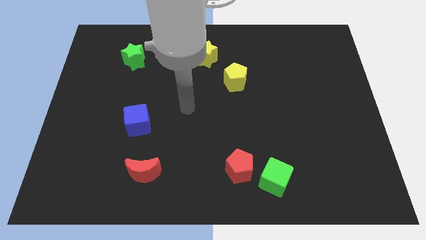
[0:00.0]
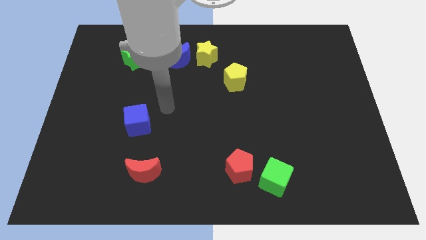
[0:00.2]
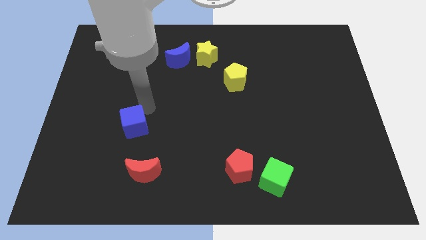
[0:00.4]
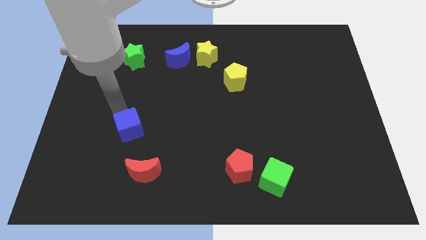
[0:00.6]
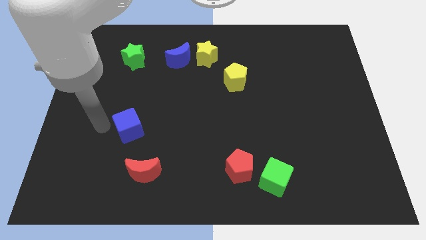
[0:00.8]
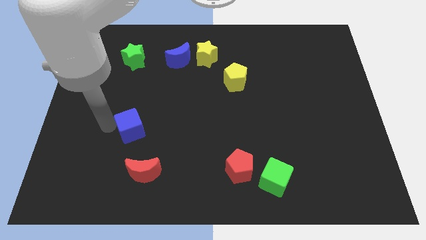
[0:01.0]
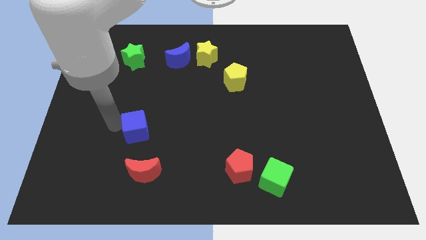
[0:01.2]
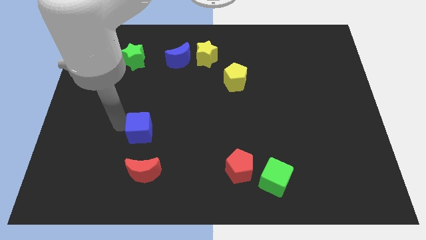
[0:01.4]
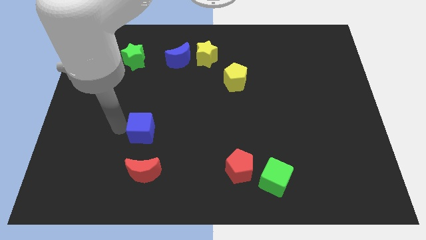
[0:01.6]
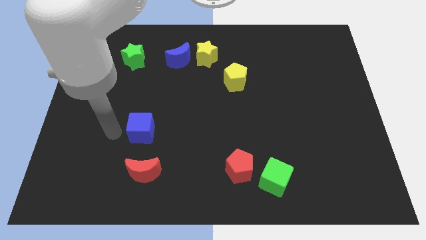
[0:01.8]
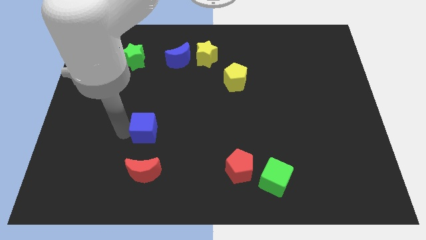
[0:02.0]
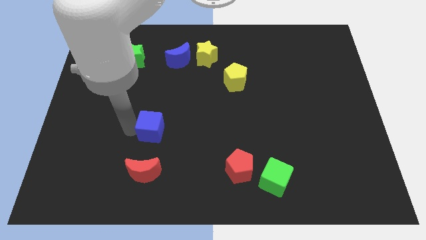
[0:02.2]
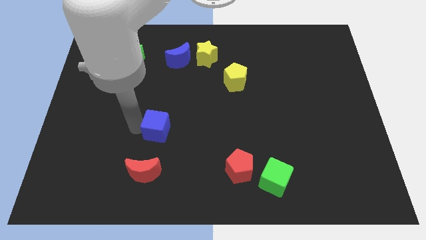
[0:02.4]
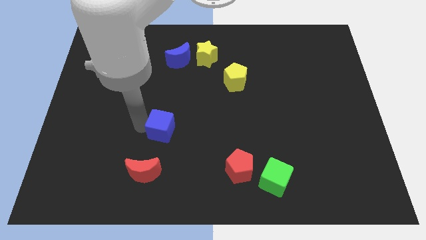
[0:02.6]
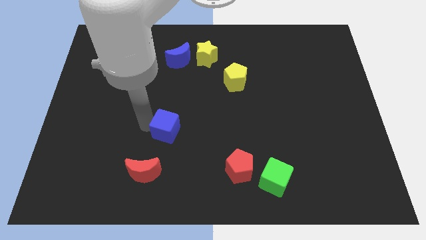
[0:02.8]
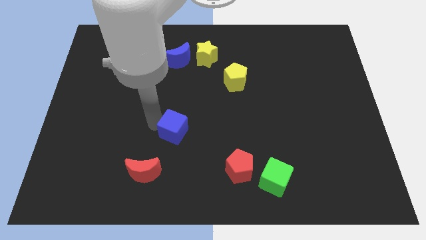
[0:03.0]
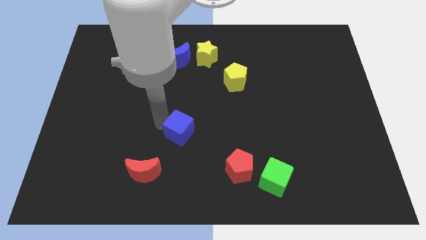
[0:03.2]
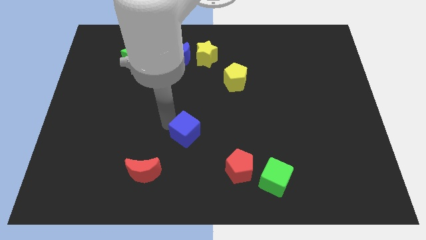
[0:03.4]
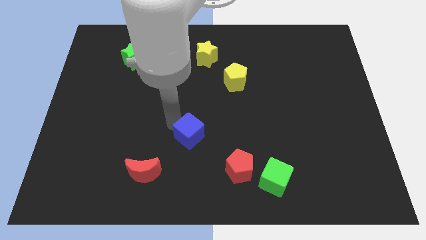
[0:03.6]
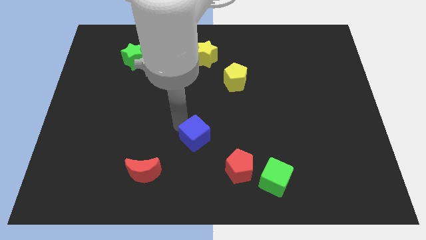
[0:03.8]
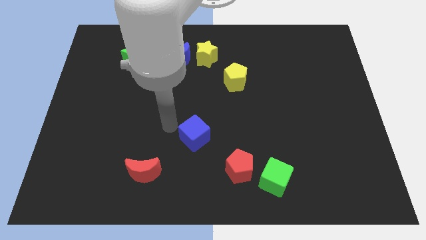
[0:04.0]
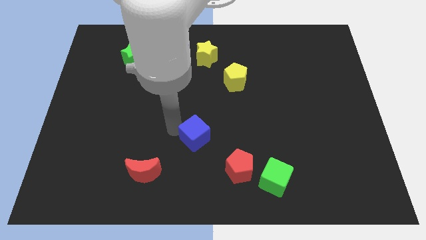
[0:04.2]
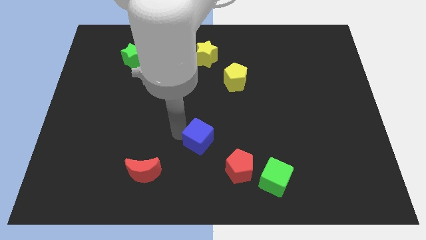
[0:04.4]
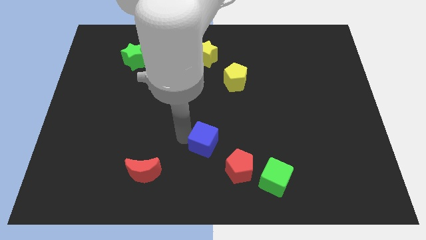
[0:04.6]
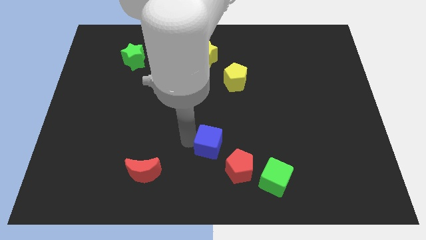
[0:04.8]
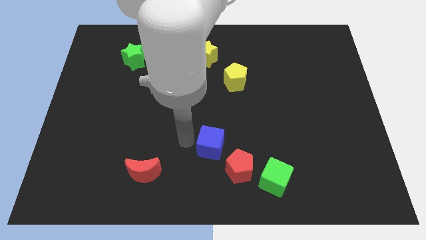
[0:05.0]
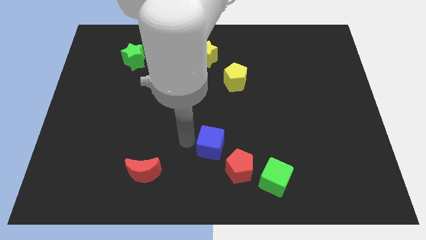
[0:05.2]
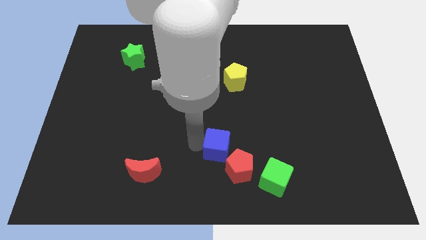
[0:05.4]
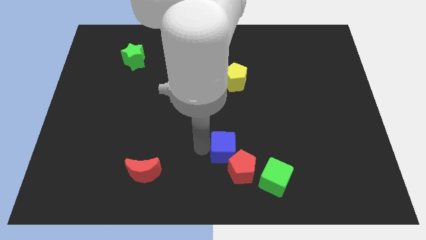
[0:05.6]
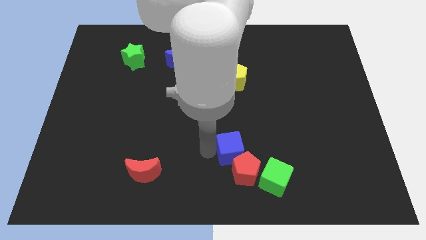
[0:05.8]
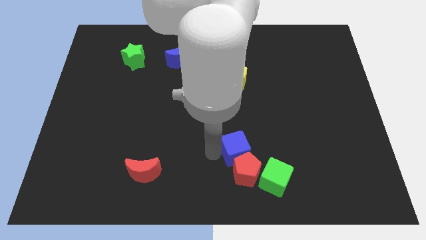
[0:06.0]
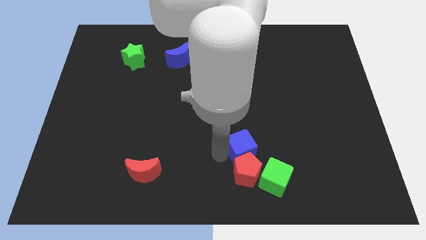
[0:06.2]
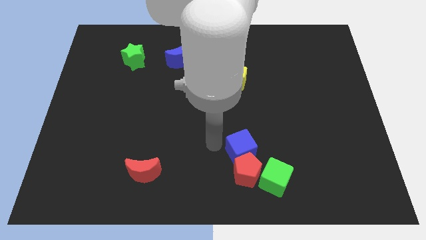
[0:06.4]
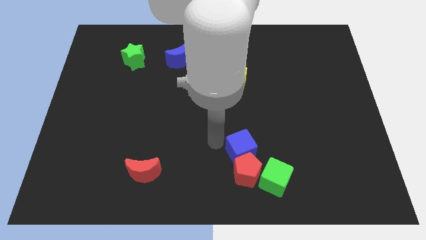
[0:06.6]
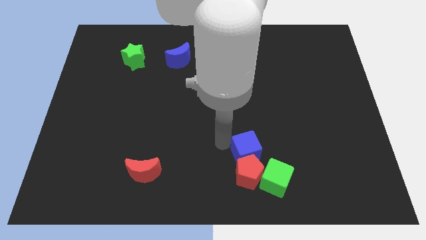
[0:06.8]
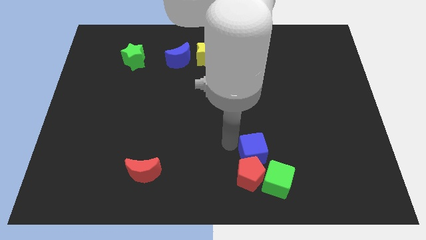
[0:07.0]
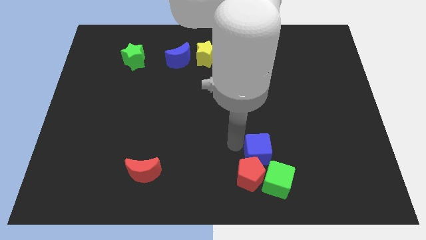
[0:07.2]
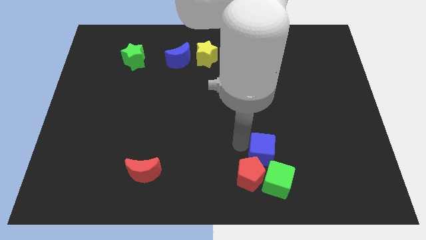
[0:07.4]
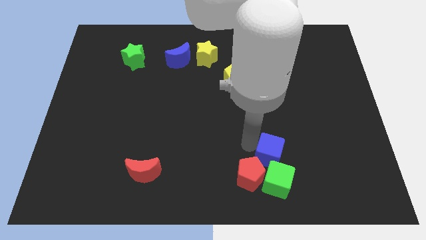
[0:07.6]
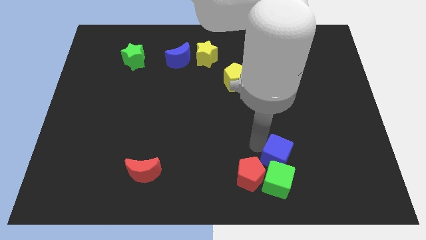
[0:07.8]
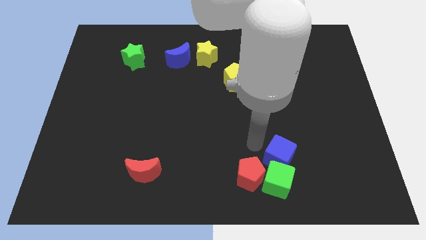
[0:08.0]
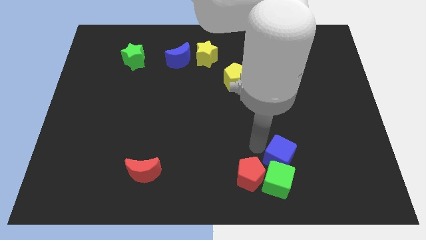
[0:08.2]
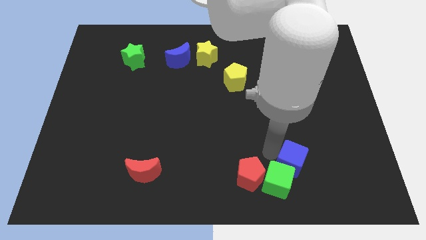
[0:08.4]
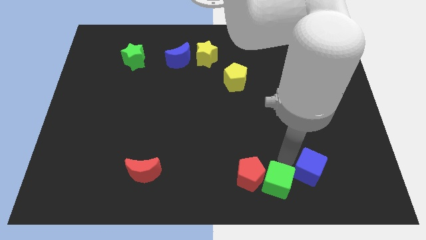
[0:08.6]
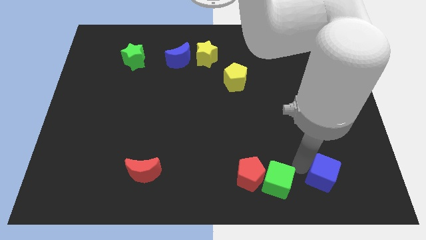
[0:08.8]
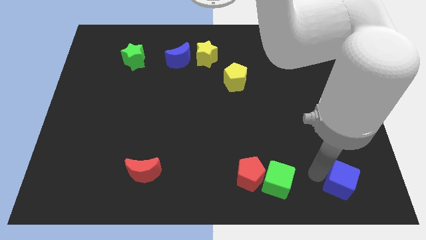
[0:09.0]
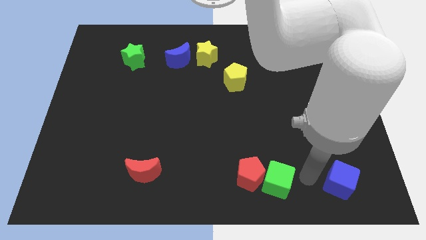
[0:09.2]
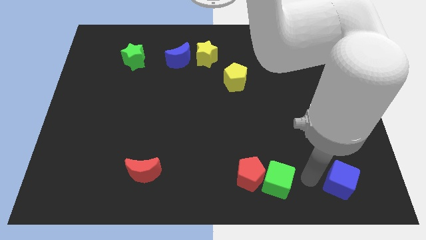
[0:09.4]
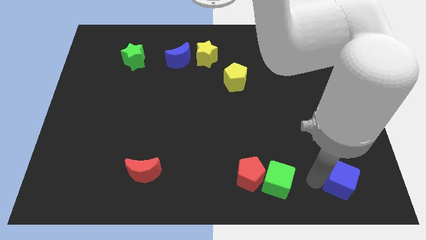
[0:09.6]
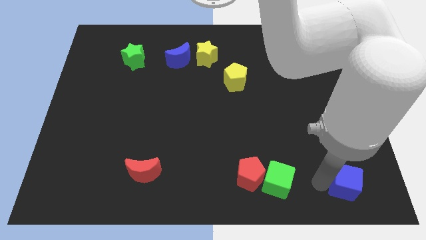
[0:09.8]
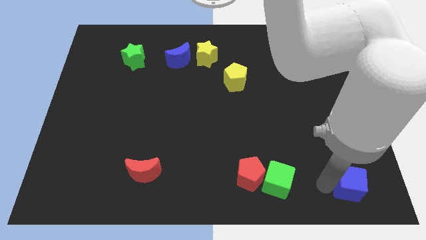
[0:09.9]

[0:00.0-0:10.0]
slide the blue cube to the bottom right corner

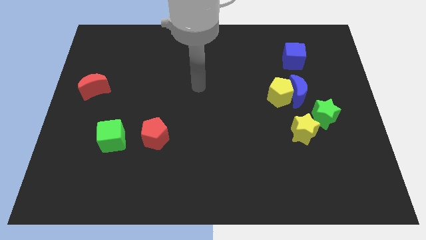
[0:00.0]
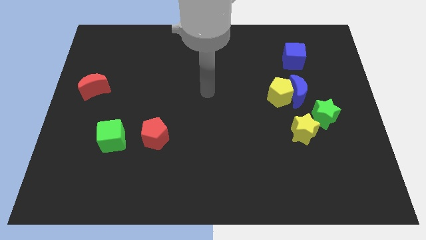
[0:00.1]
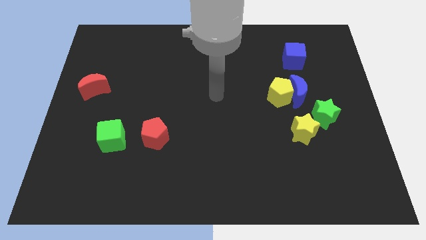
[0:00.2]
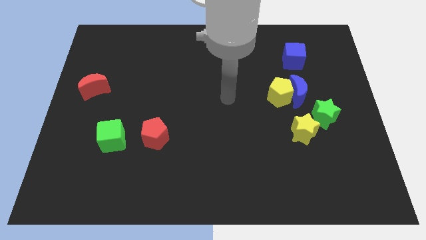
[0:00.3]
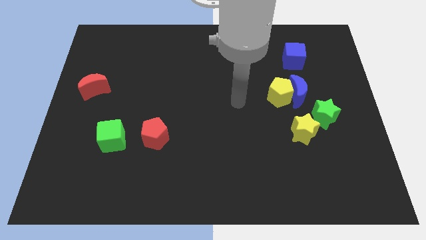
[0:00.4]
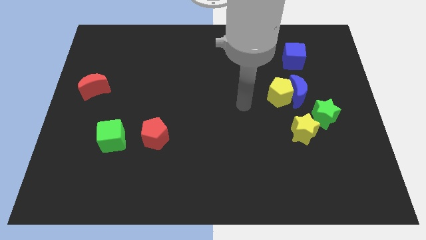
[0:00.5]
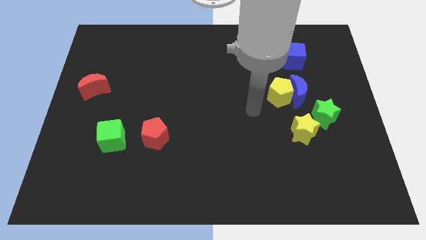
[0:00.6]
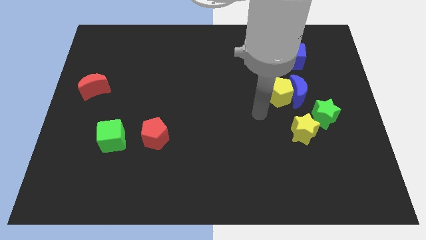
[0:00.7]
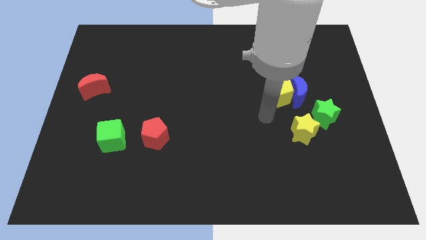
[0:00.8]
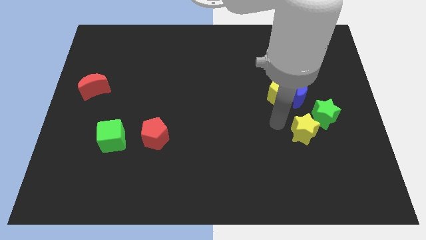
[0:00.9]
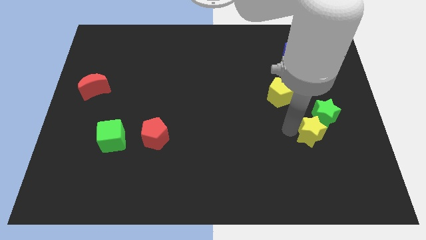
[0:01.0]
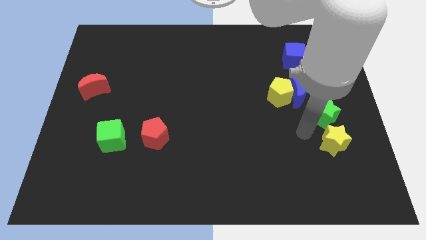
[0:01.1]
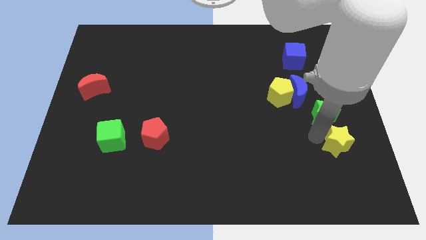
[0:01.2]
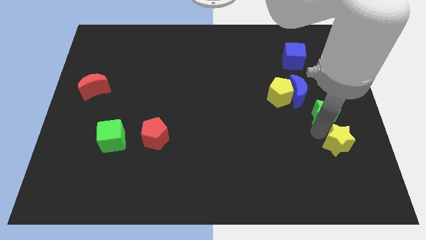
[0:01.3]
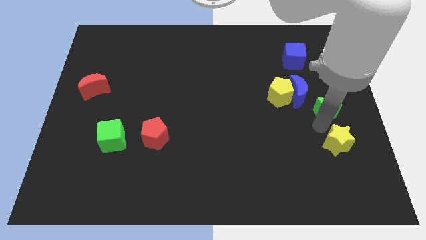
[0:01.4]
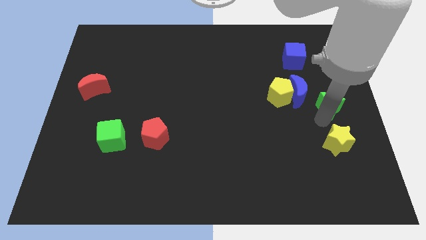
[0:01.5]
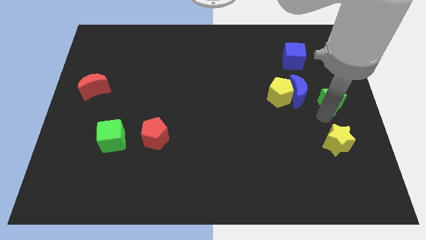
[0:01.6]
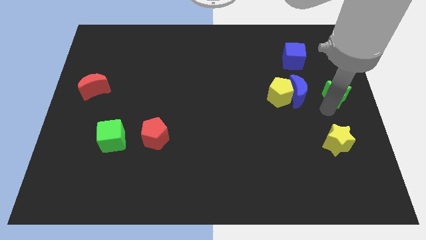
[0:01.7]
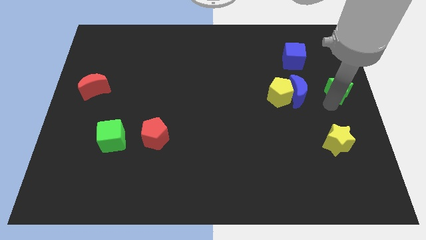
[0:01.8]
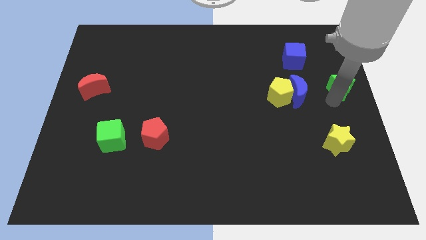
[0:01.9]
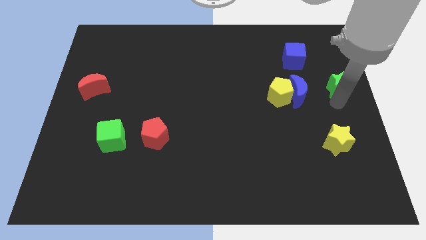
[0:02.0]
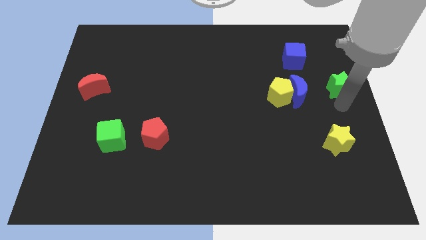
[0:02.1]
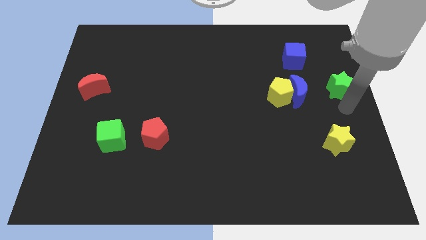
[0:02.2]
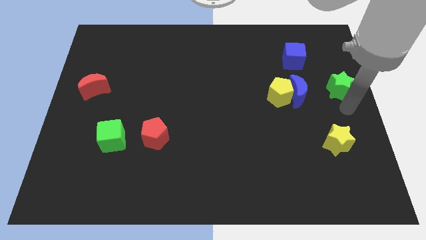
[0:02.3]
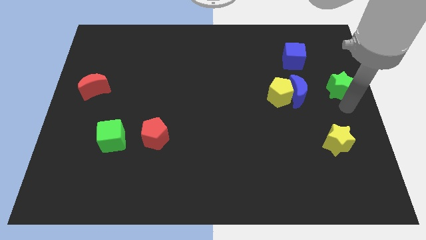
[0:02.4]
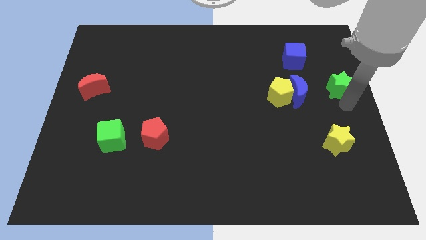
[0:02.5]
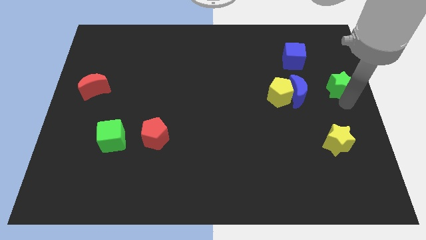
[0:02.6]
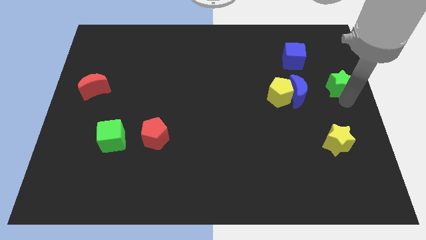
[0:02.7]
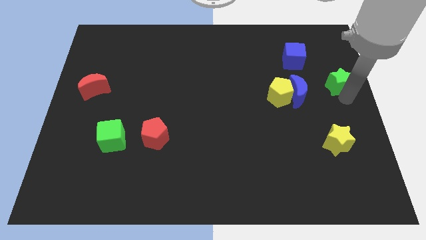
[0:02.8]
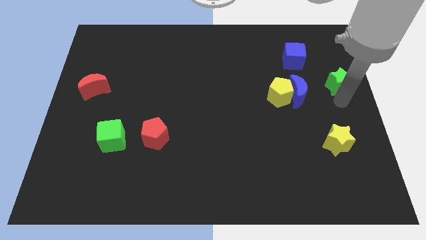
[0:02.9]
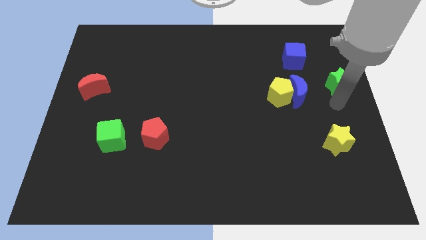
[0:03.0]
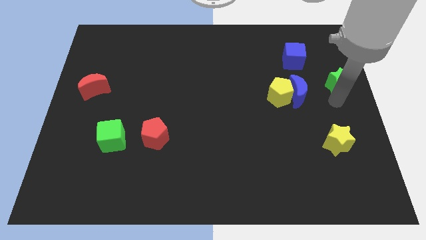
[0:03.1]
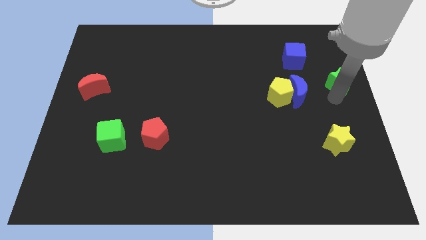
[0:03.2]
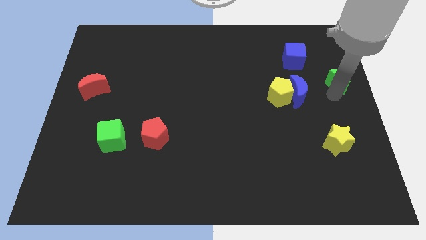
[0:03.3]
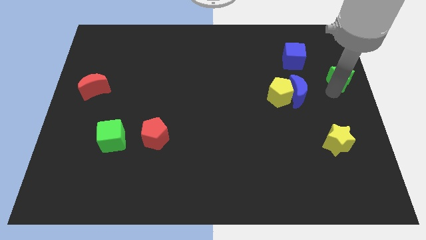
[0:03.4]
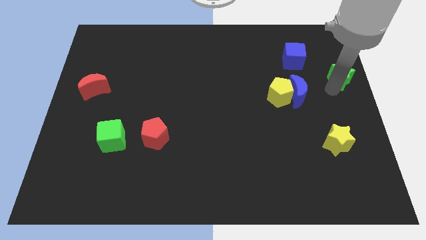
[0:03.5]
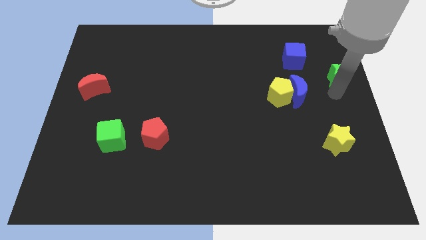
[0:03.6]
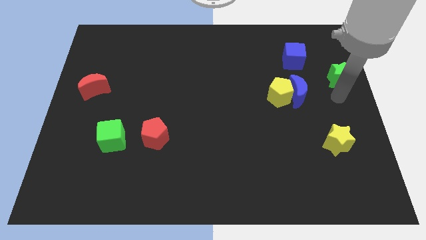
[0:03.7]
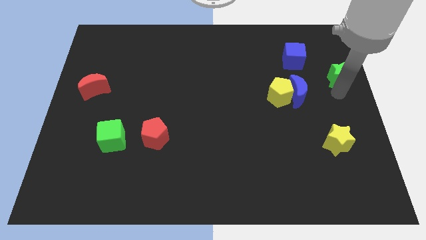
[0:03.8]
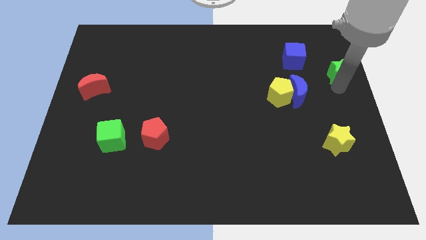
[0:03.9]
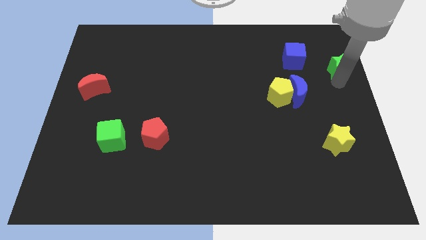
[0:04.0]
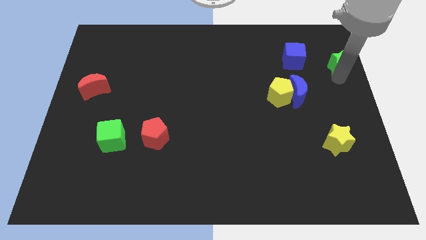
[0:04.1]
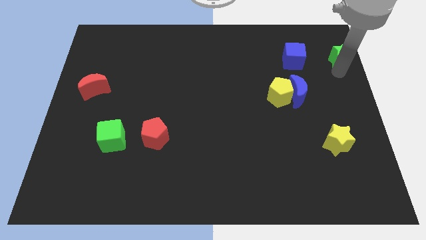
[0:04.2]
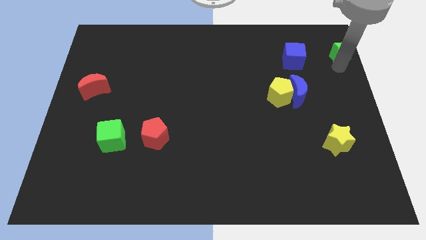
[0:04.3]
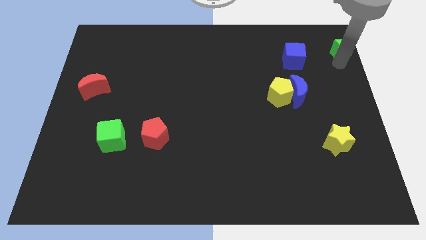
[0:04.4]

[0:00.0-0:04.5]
put the green star to the top right
